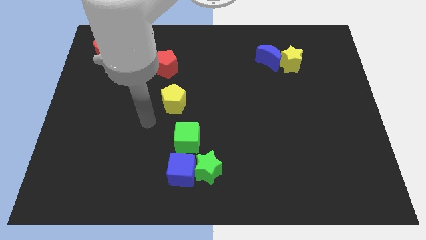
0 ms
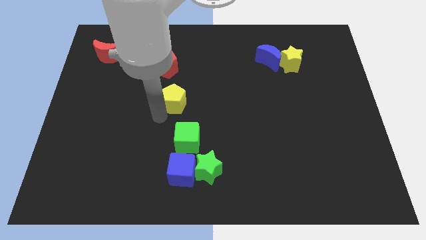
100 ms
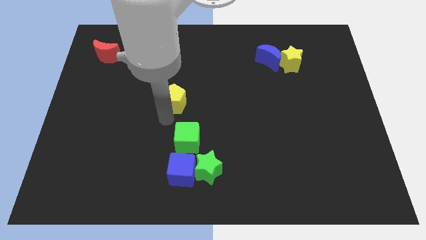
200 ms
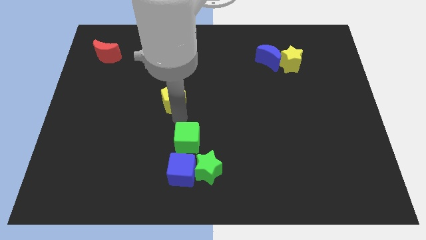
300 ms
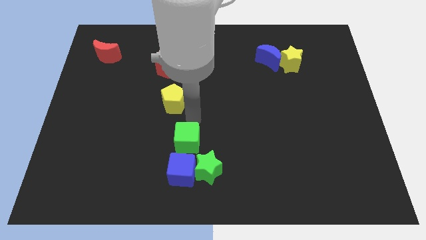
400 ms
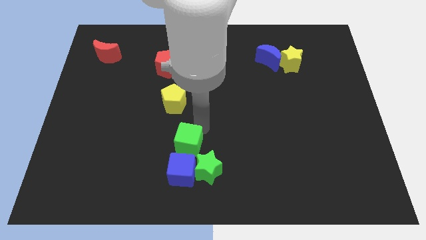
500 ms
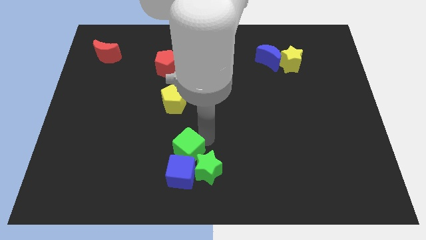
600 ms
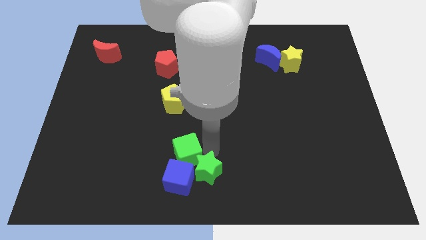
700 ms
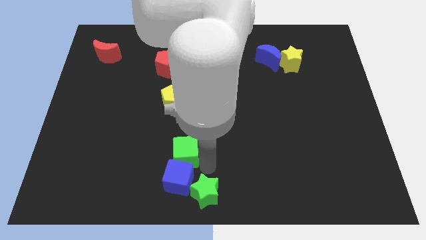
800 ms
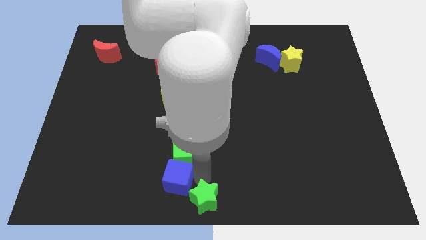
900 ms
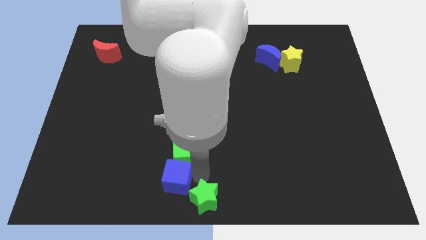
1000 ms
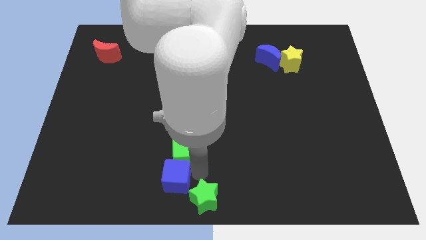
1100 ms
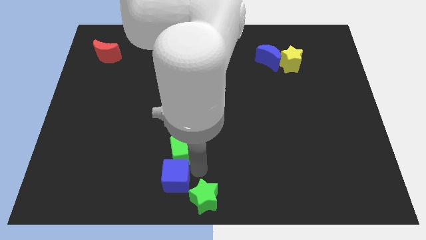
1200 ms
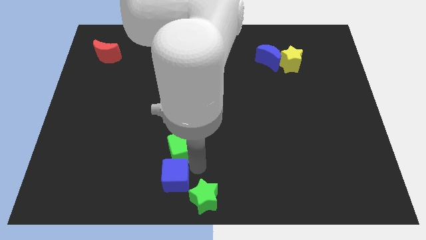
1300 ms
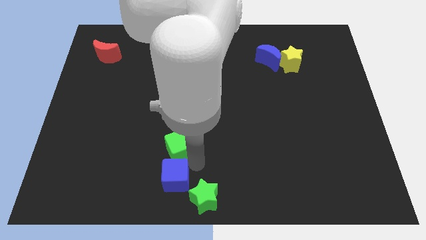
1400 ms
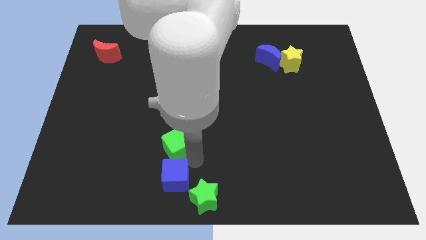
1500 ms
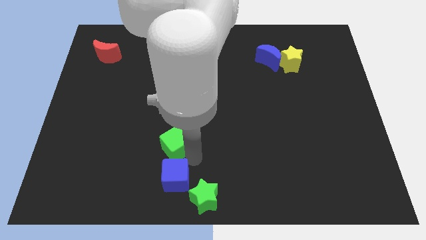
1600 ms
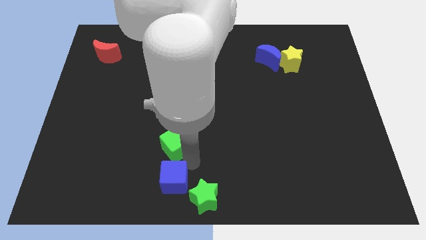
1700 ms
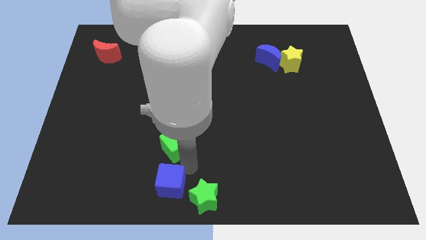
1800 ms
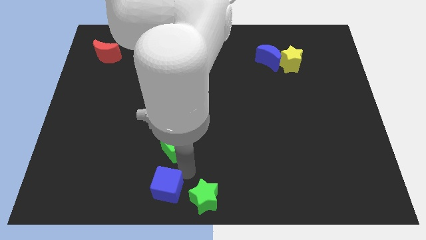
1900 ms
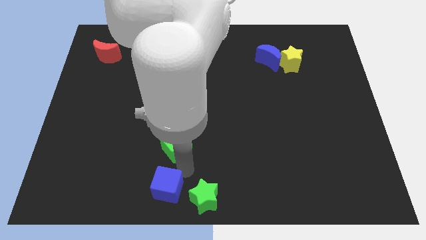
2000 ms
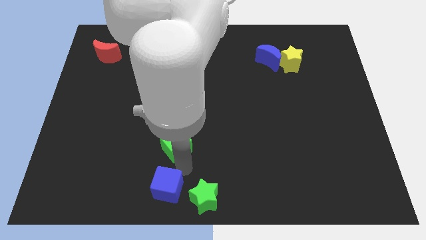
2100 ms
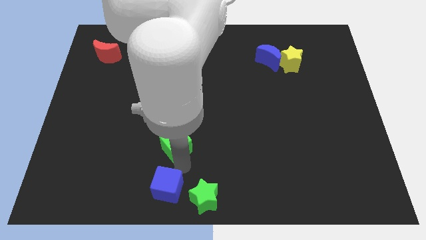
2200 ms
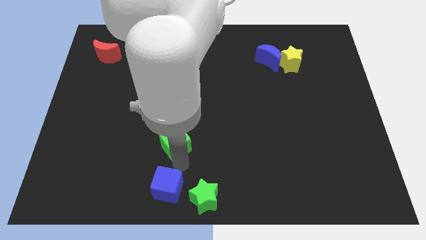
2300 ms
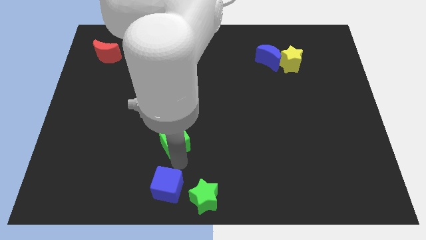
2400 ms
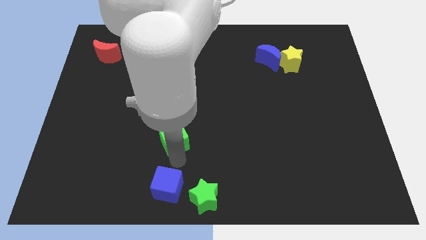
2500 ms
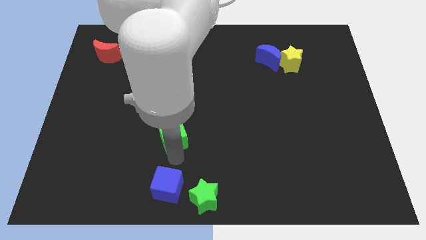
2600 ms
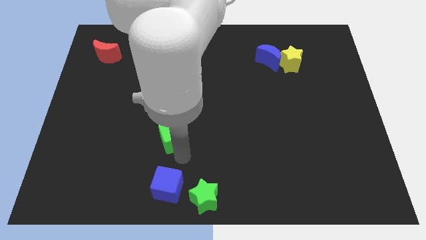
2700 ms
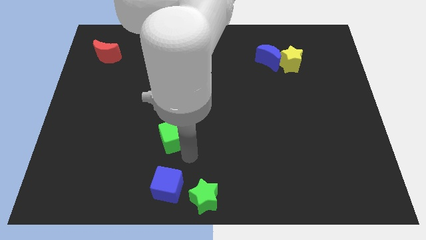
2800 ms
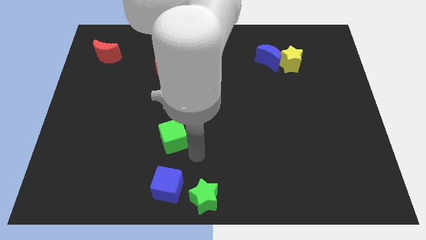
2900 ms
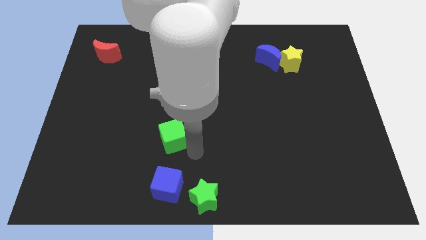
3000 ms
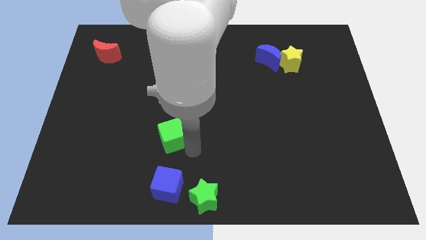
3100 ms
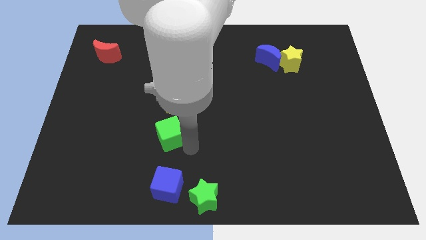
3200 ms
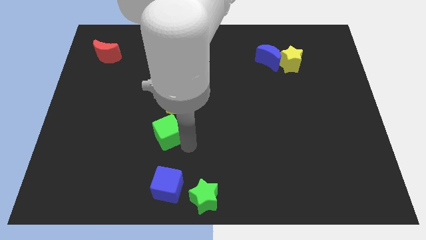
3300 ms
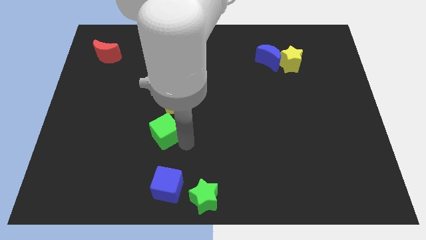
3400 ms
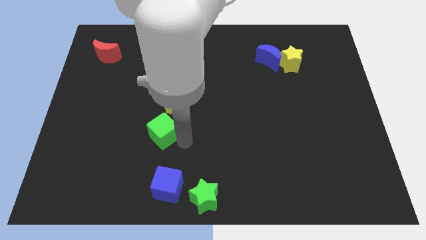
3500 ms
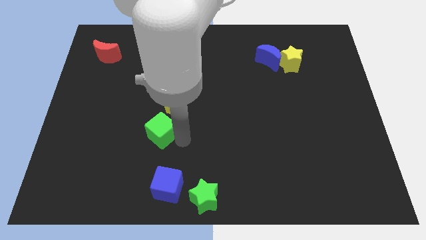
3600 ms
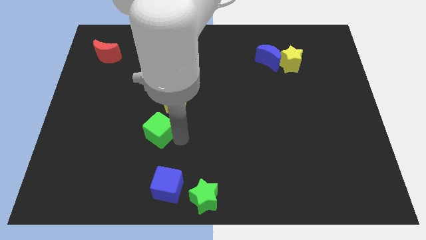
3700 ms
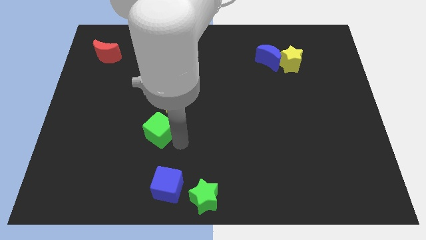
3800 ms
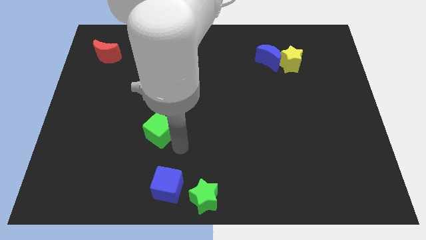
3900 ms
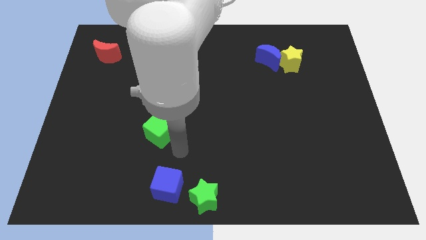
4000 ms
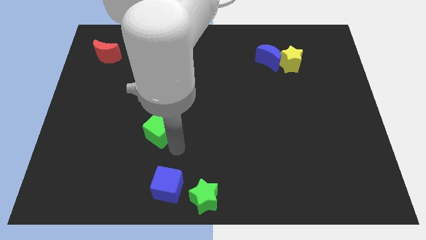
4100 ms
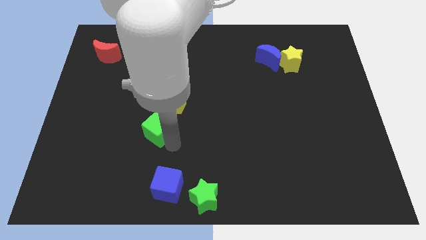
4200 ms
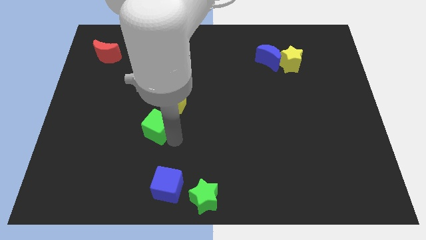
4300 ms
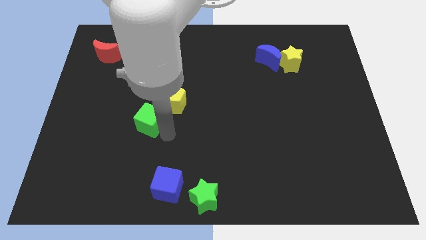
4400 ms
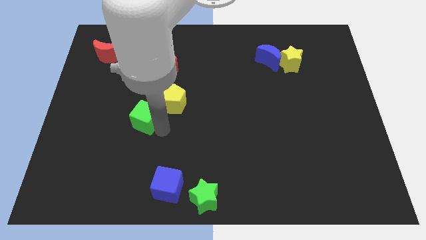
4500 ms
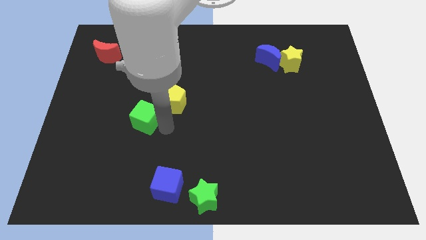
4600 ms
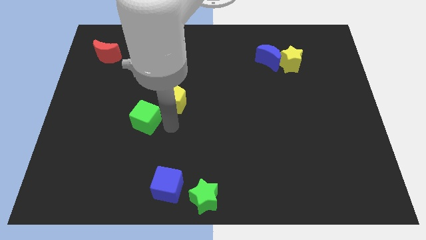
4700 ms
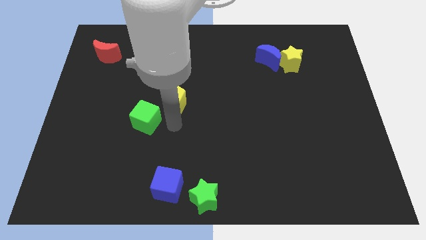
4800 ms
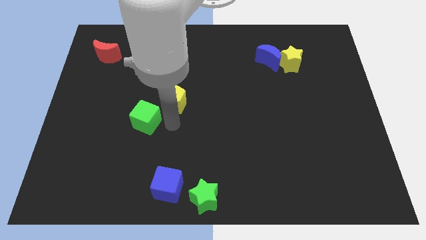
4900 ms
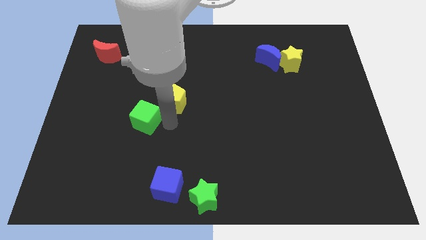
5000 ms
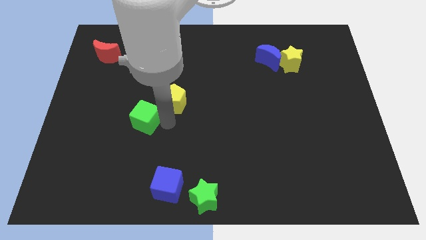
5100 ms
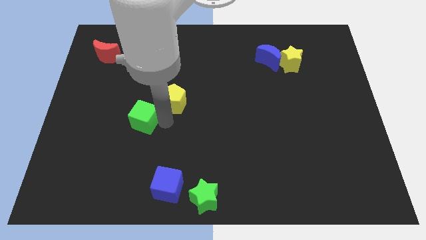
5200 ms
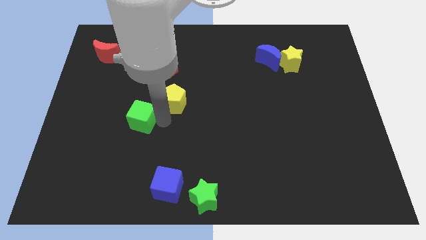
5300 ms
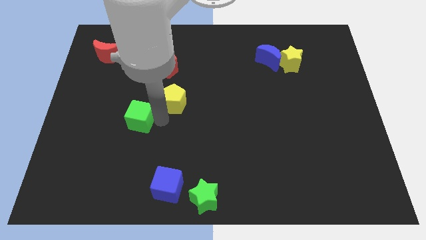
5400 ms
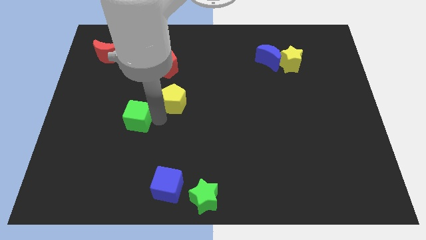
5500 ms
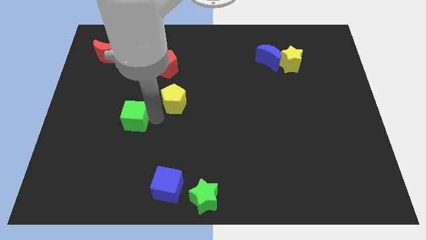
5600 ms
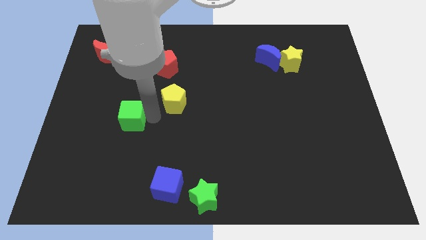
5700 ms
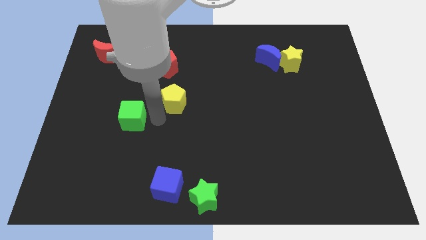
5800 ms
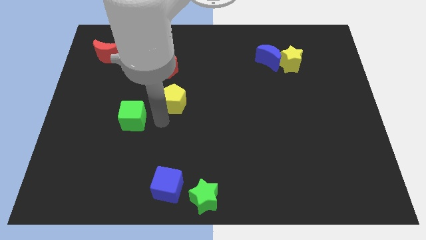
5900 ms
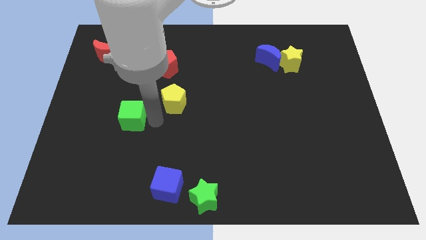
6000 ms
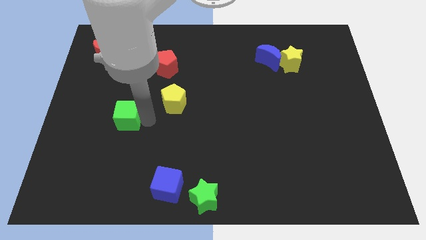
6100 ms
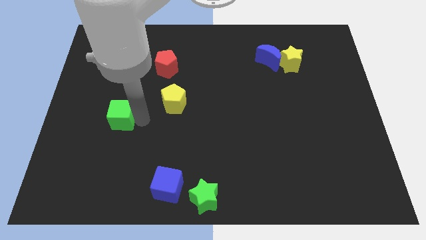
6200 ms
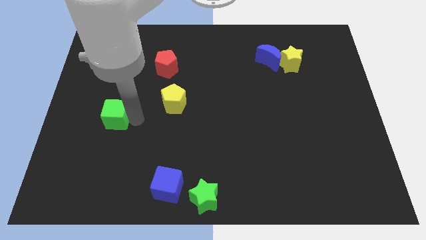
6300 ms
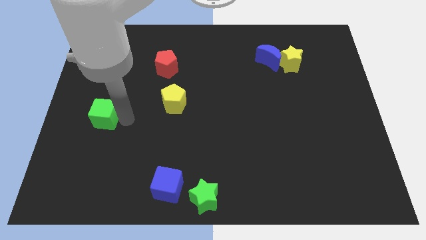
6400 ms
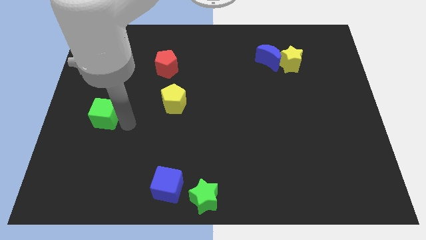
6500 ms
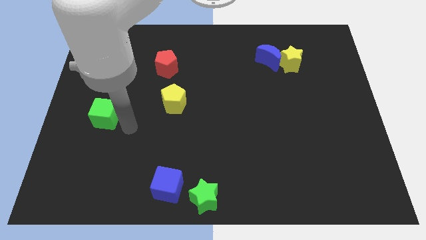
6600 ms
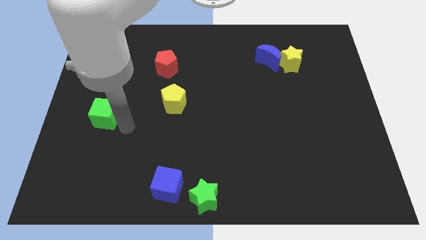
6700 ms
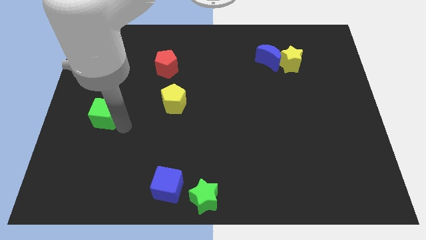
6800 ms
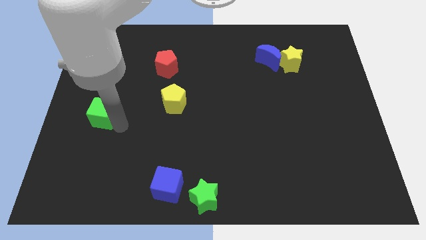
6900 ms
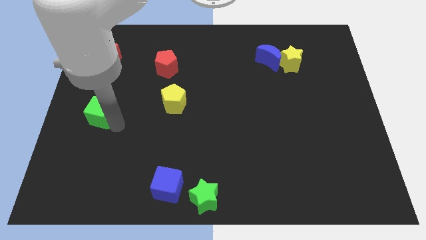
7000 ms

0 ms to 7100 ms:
move the green cube to the left side of the board
